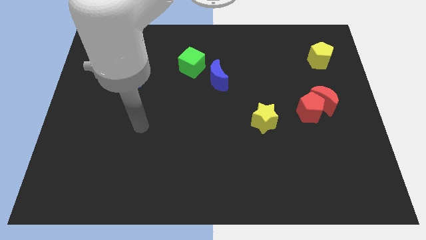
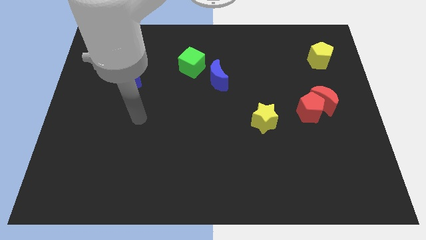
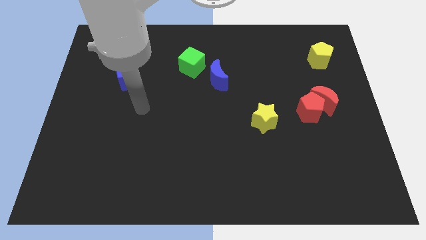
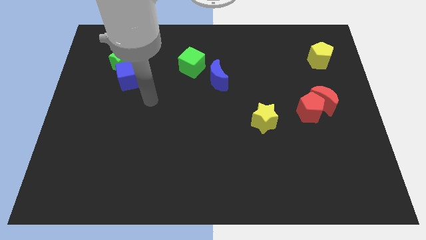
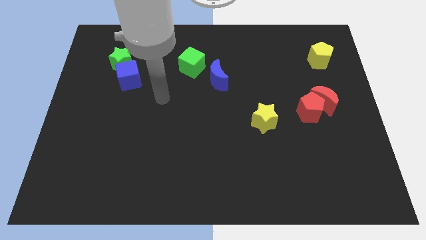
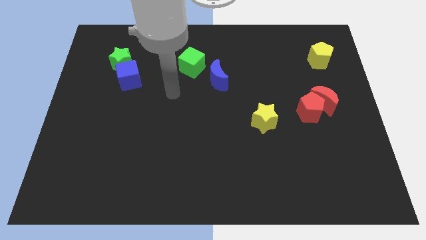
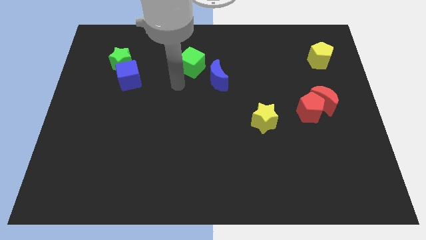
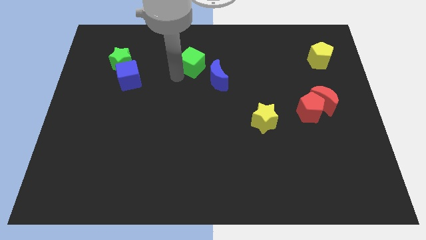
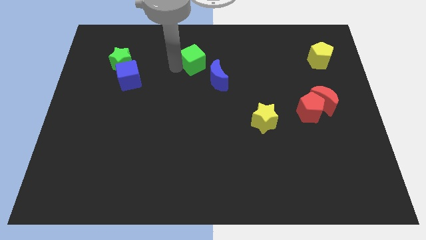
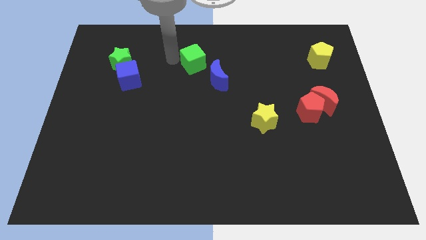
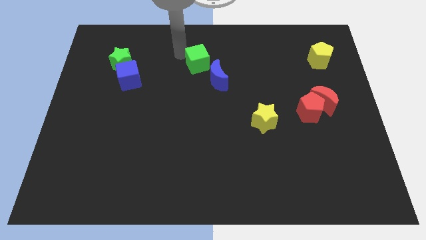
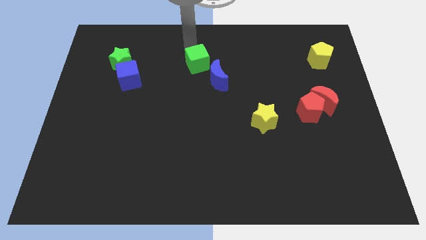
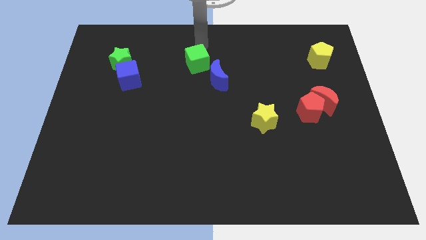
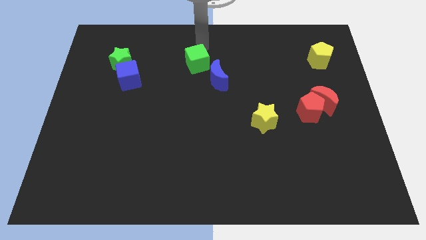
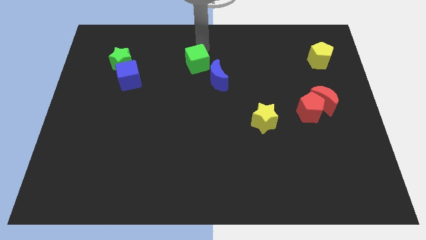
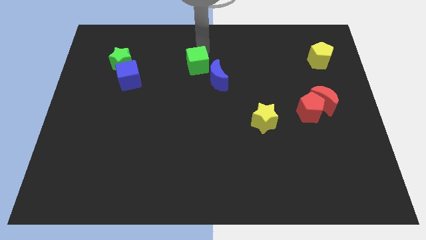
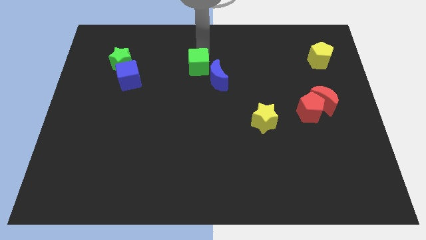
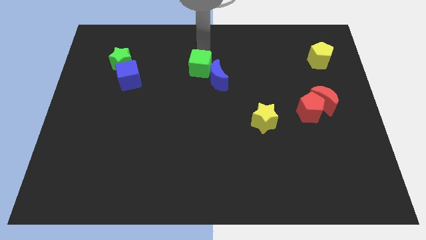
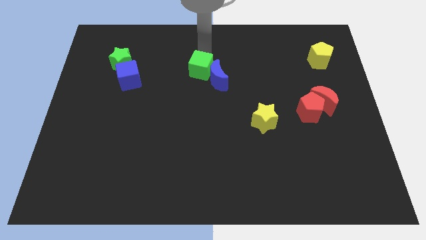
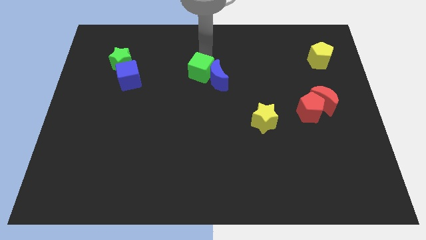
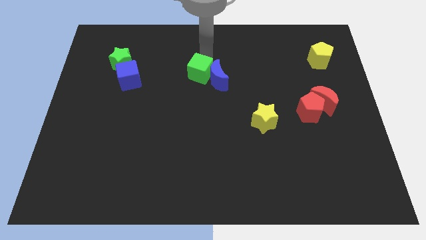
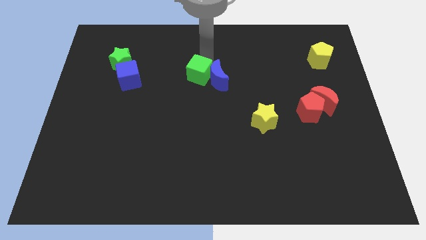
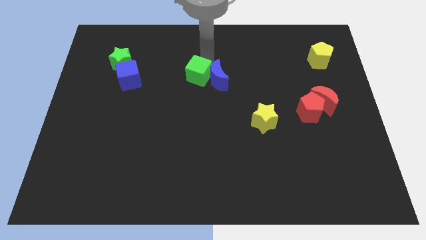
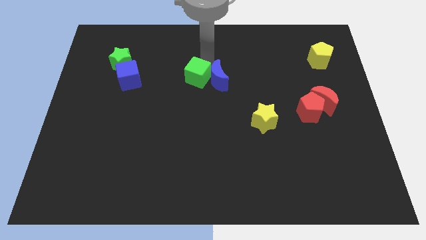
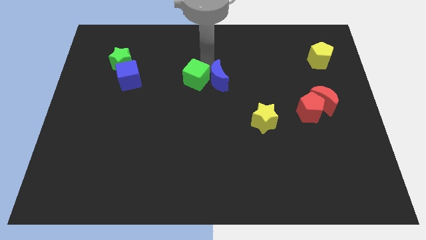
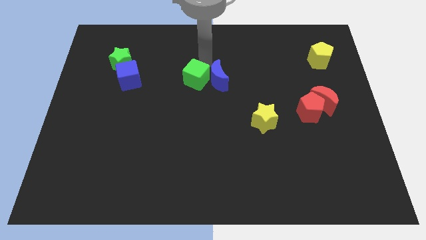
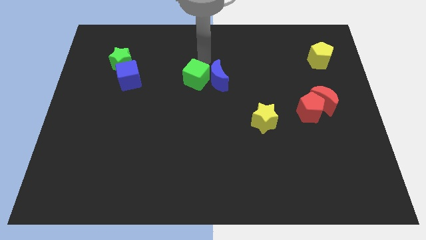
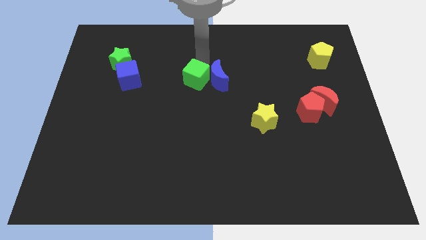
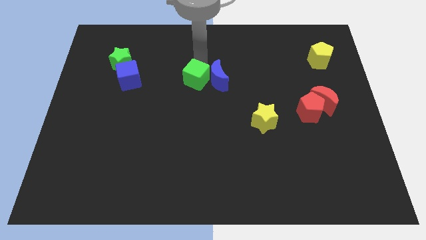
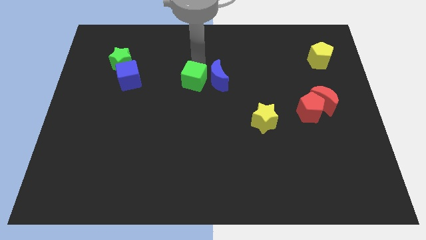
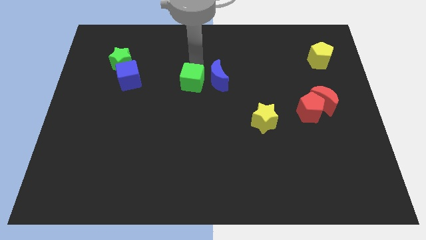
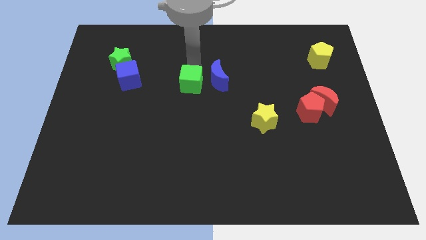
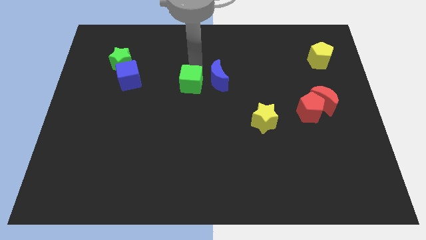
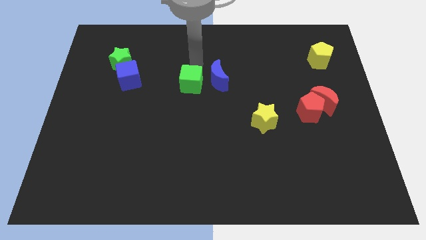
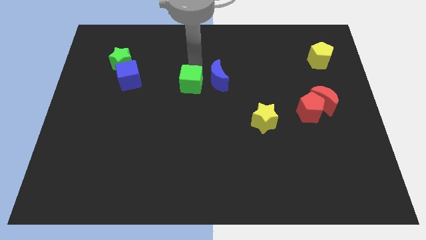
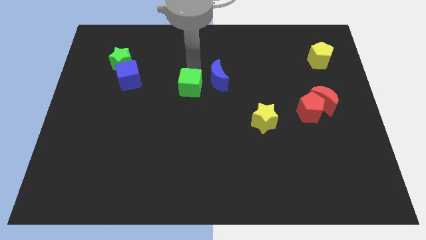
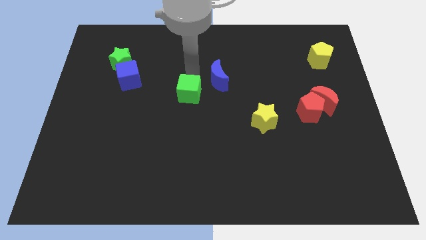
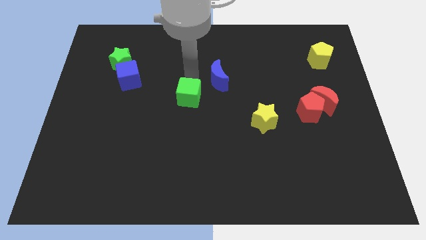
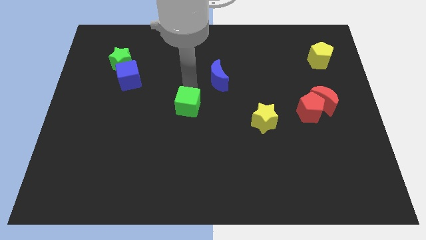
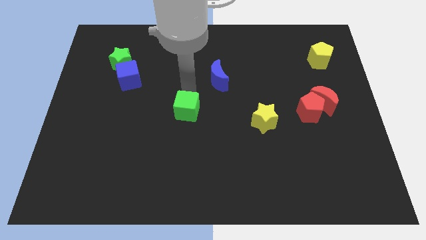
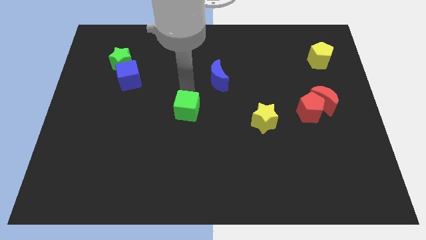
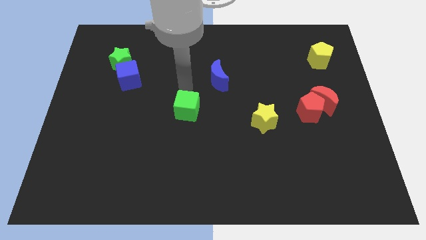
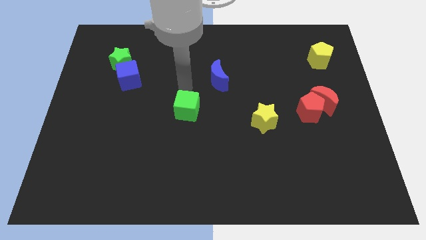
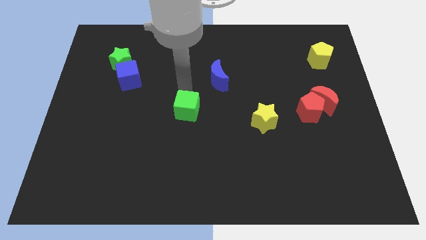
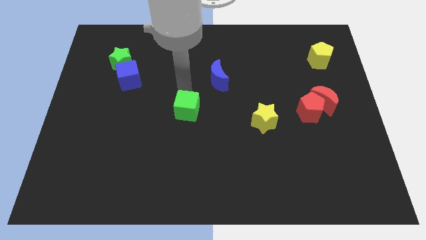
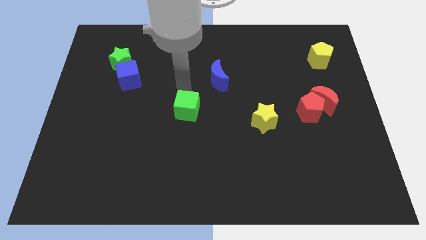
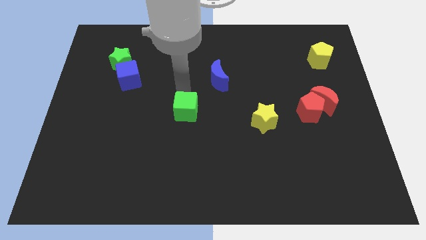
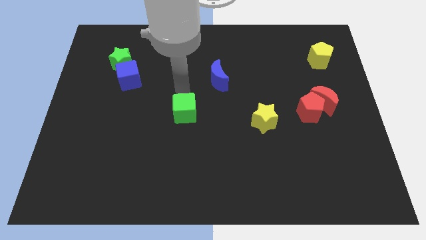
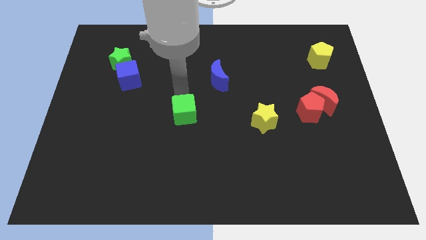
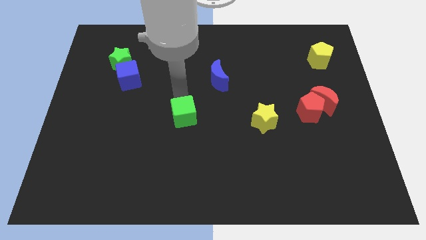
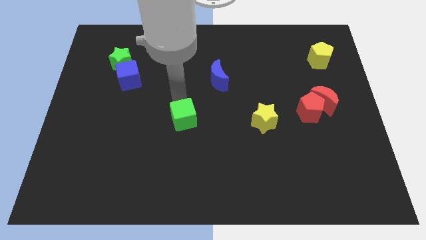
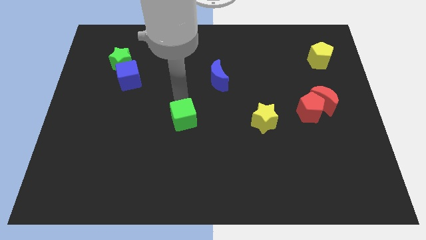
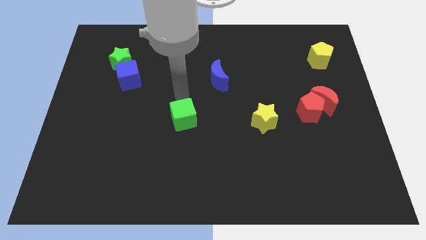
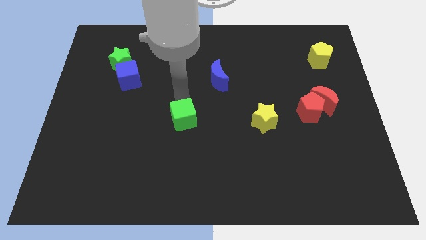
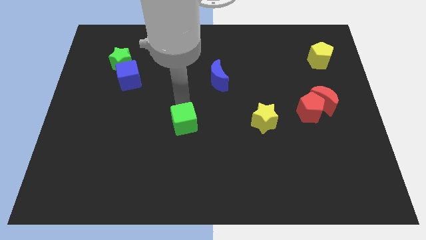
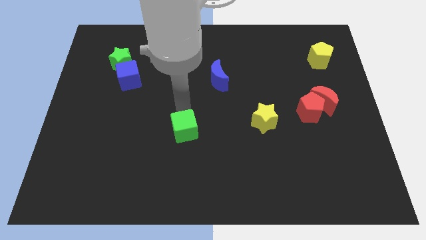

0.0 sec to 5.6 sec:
slide the green cube down

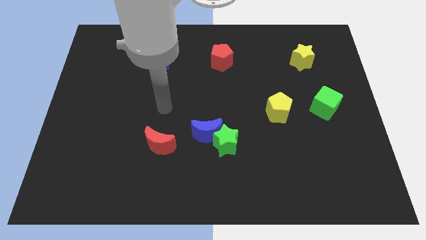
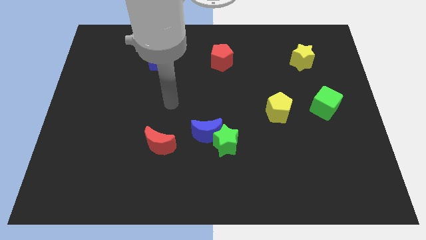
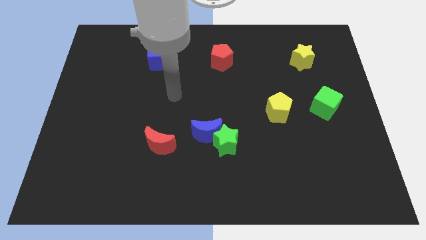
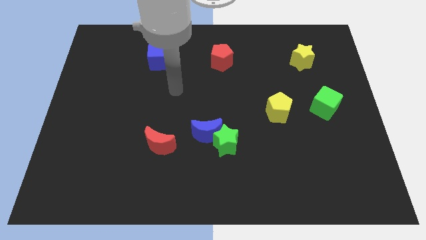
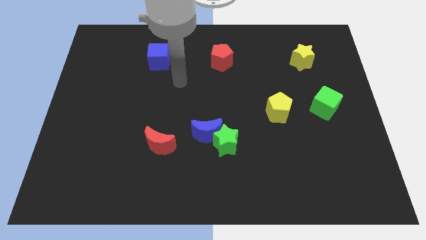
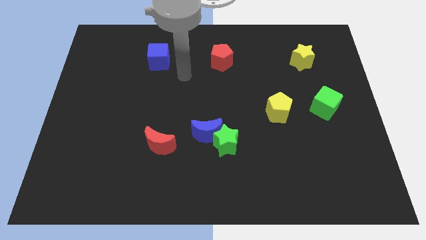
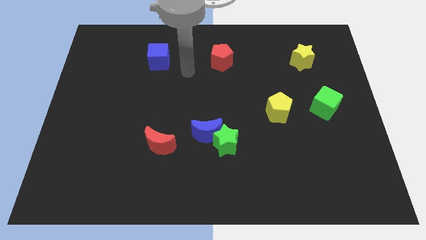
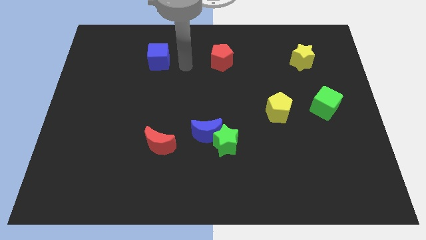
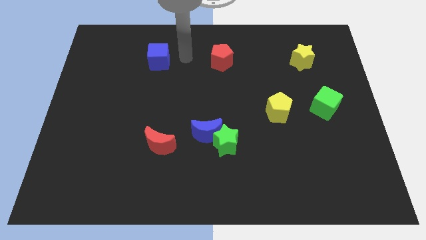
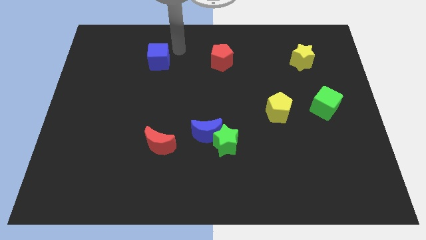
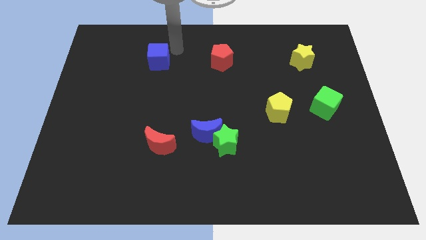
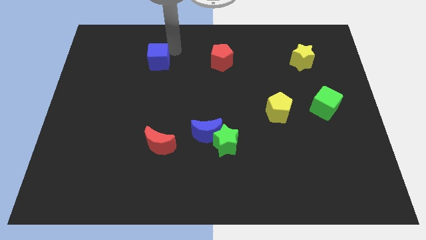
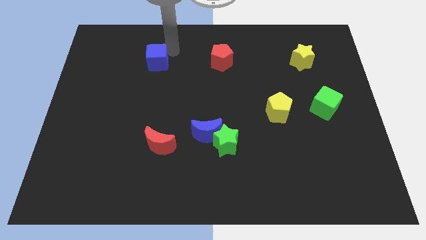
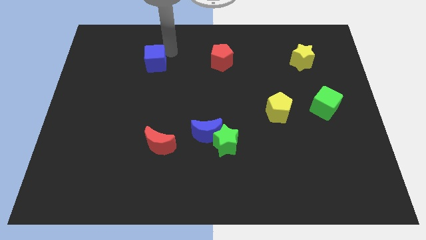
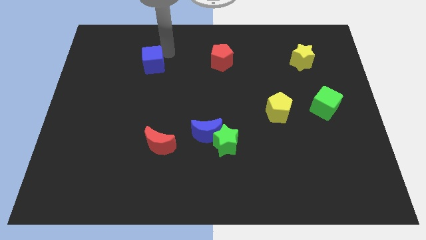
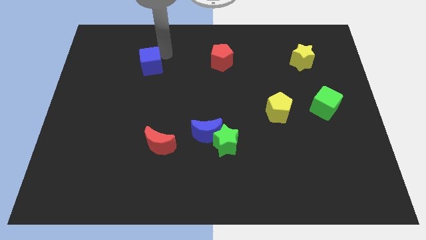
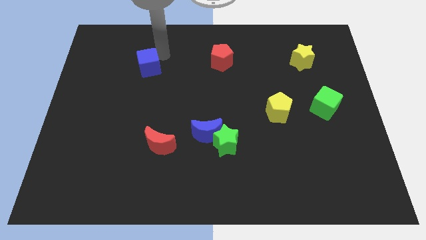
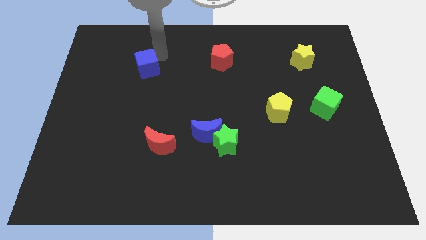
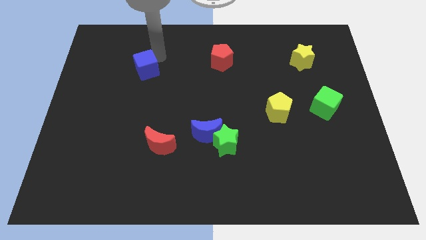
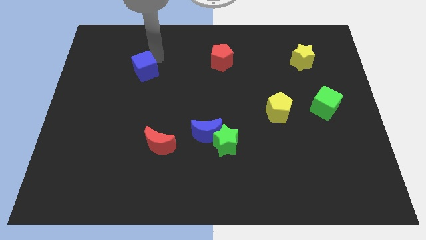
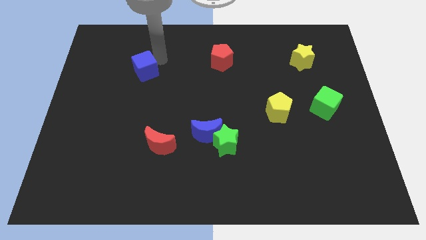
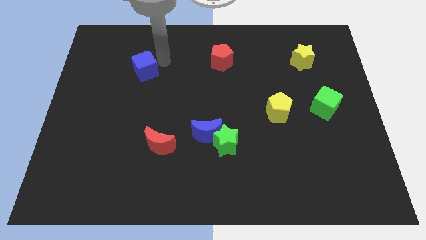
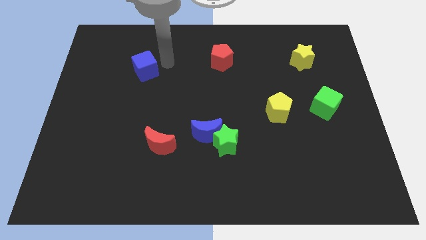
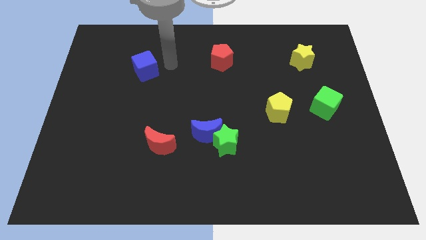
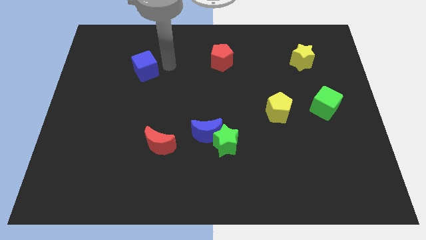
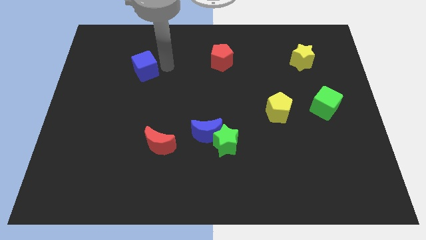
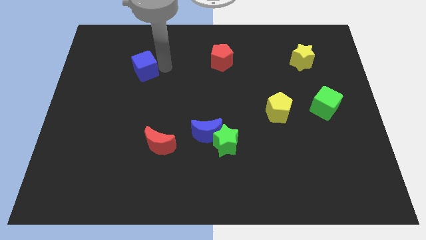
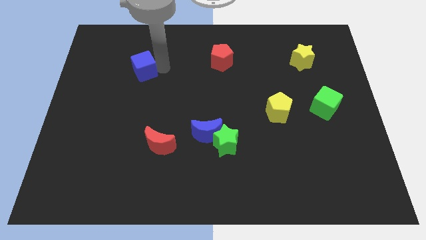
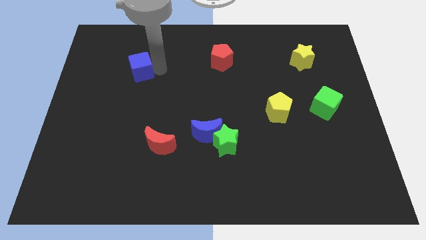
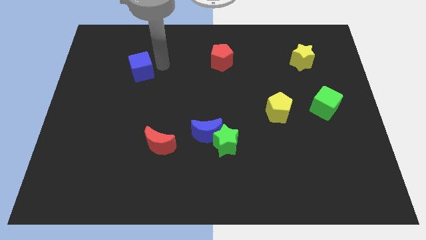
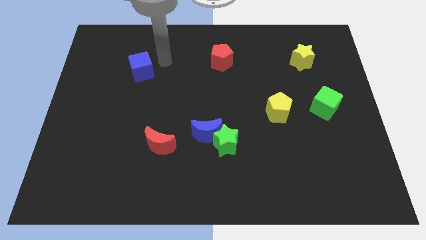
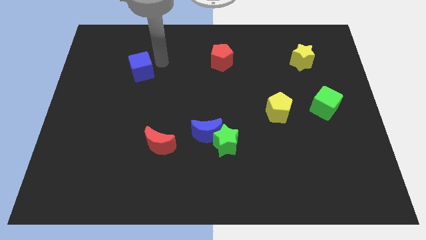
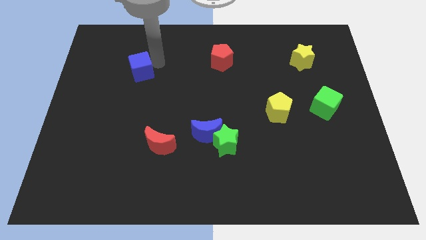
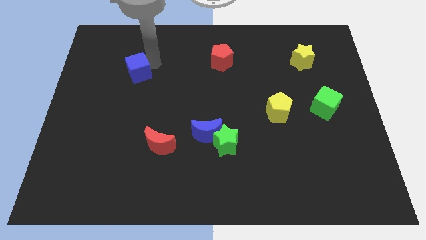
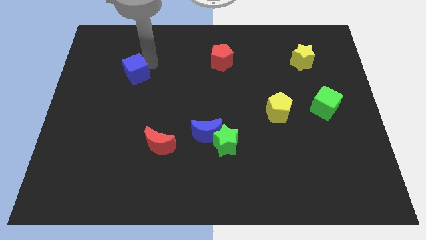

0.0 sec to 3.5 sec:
move the blue cube downwards and to the left slightly
